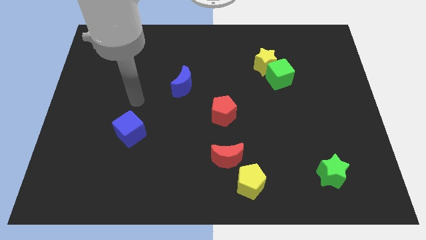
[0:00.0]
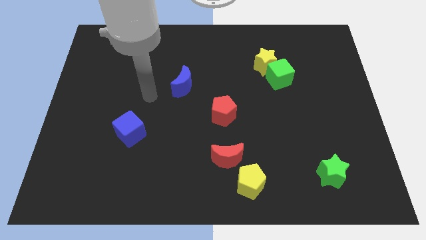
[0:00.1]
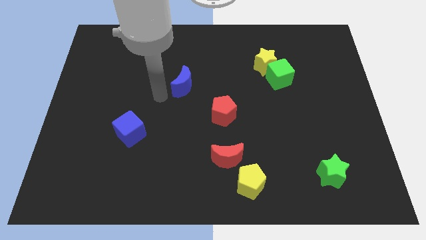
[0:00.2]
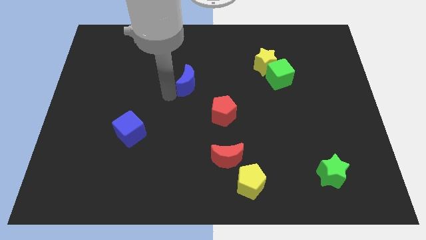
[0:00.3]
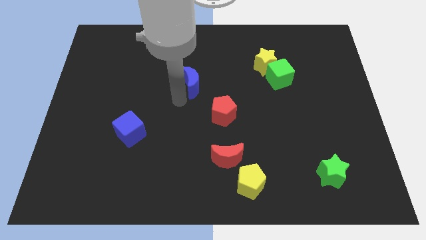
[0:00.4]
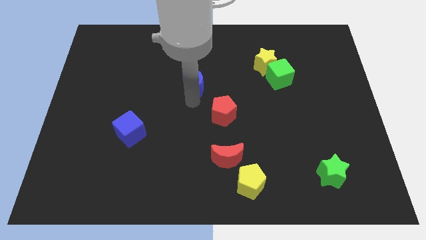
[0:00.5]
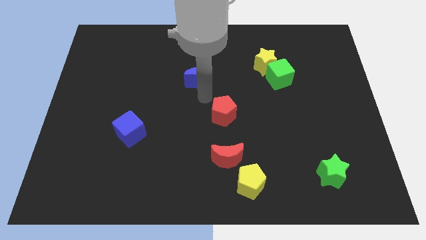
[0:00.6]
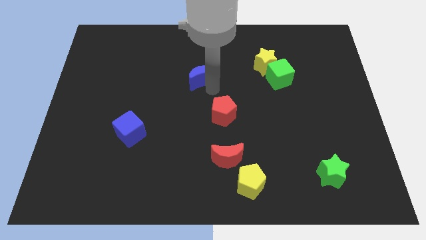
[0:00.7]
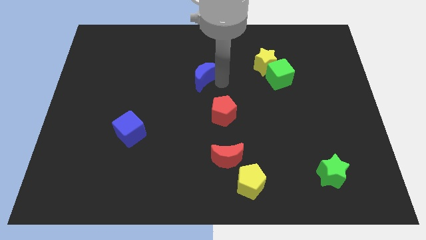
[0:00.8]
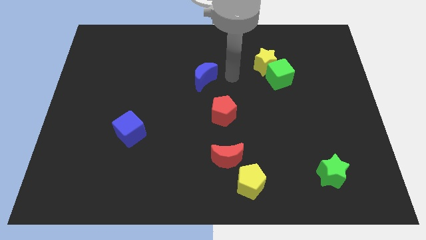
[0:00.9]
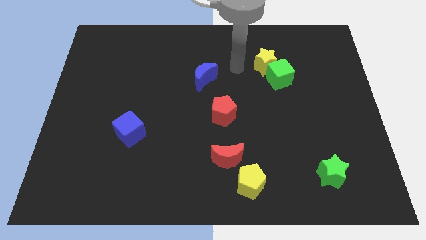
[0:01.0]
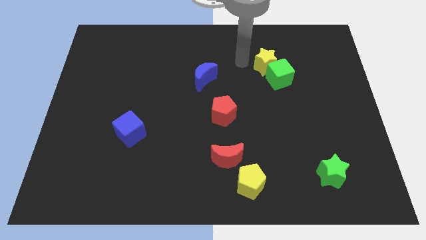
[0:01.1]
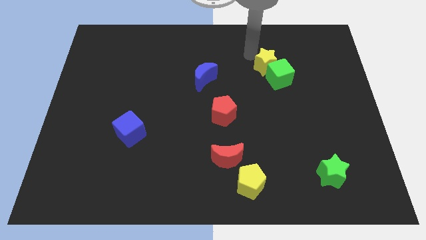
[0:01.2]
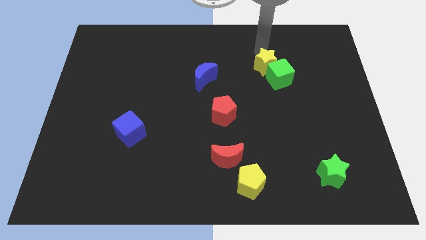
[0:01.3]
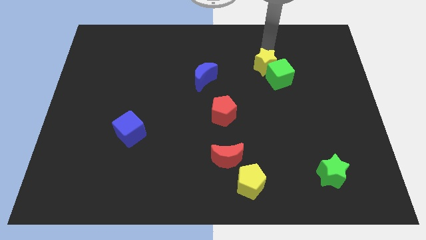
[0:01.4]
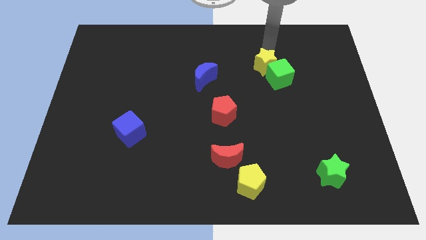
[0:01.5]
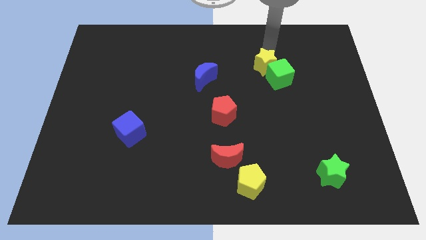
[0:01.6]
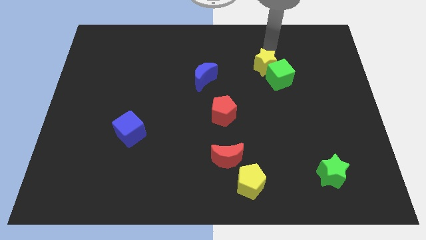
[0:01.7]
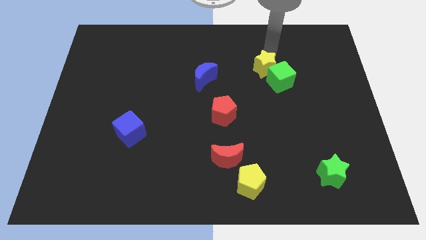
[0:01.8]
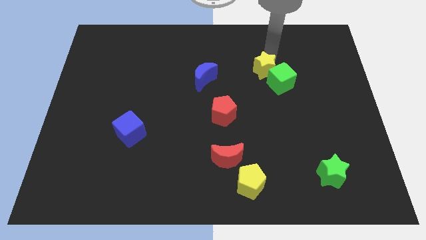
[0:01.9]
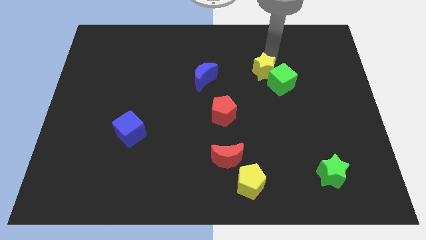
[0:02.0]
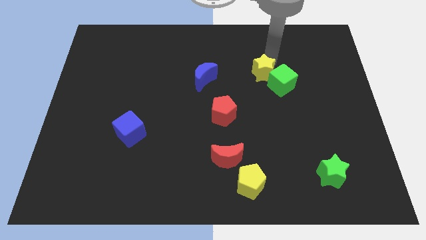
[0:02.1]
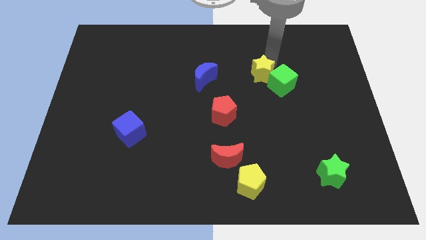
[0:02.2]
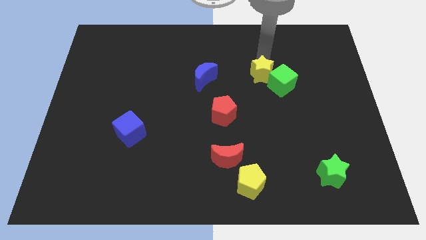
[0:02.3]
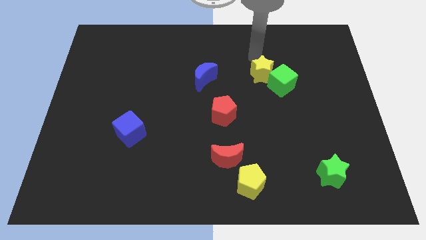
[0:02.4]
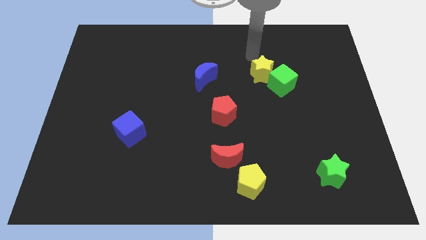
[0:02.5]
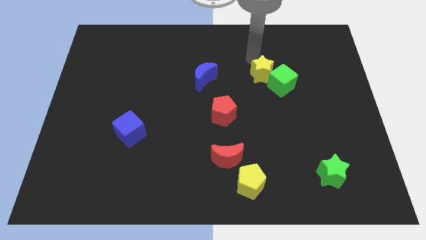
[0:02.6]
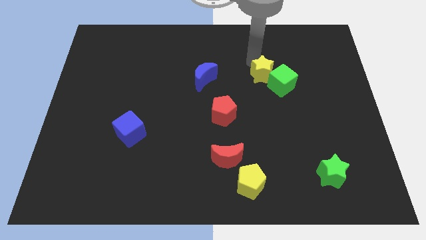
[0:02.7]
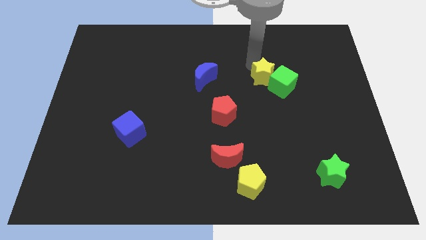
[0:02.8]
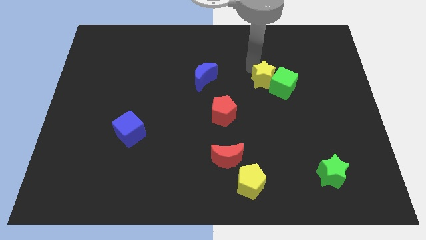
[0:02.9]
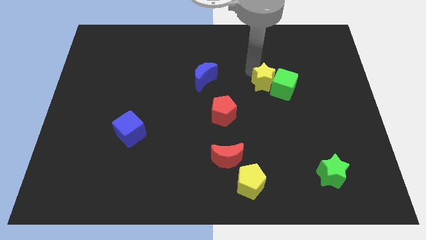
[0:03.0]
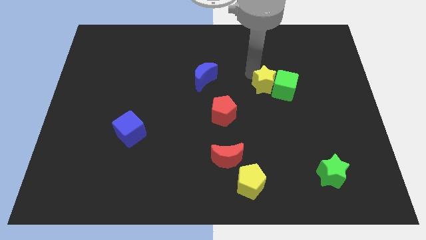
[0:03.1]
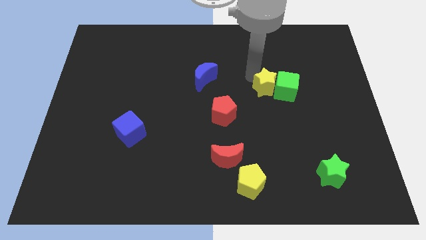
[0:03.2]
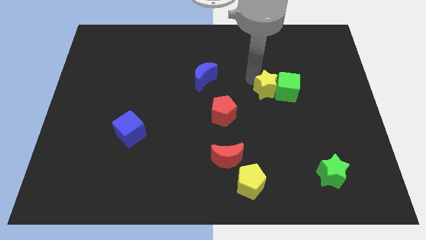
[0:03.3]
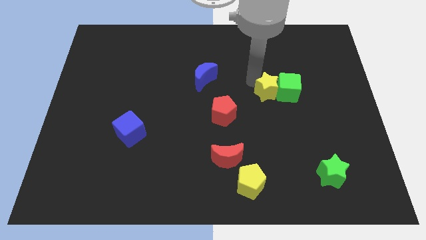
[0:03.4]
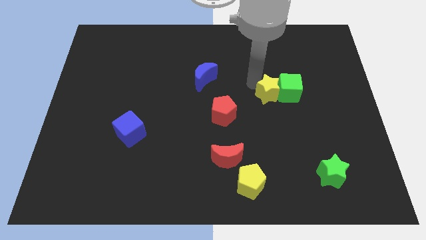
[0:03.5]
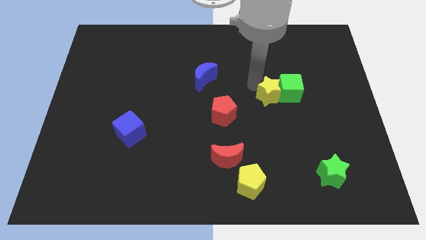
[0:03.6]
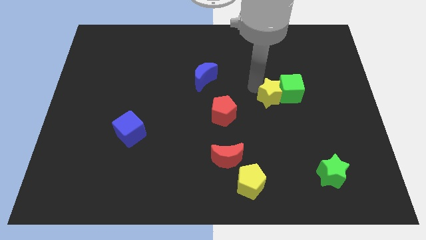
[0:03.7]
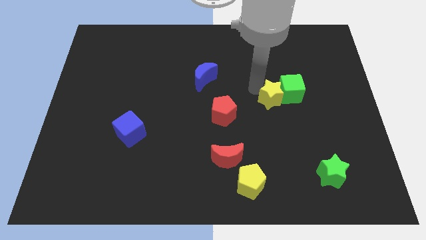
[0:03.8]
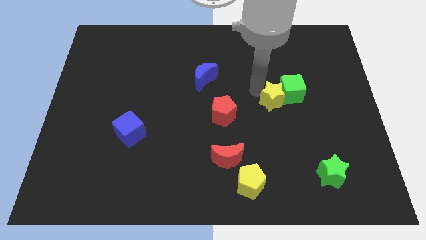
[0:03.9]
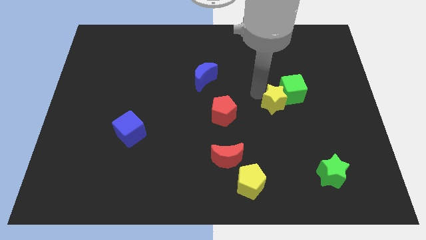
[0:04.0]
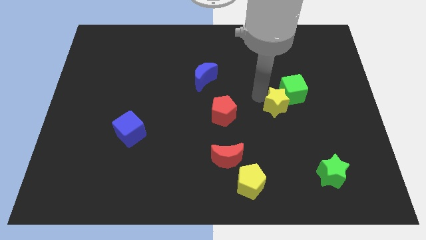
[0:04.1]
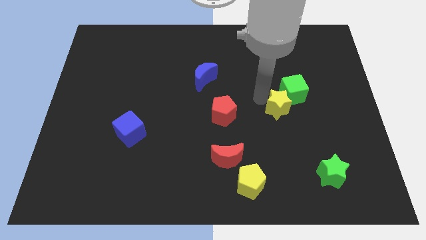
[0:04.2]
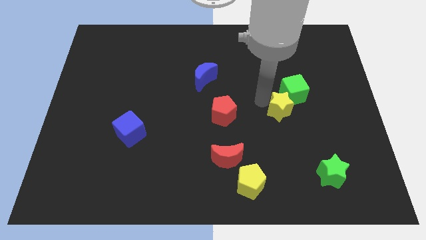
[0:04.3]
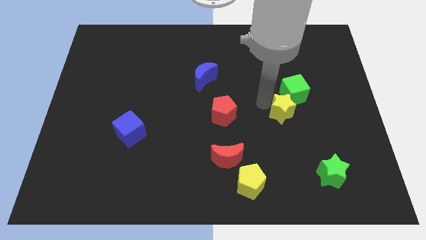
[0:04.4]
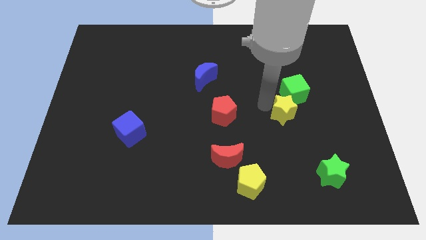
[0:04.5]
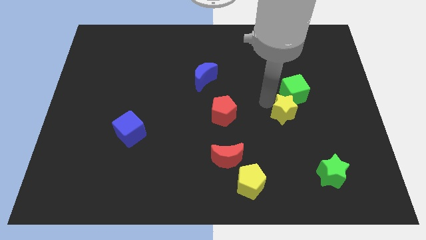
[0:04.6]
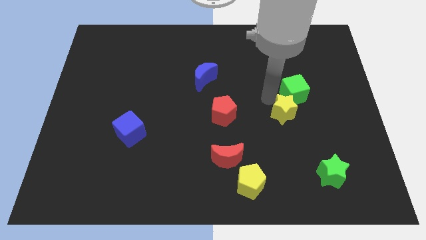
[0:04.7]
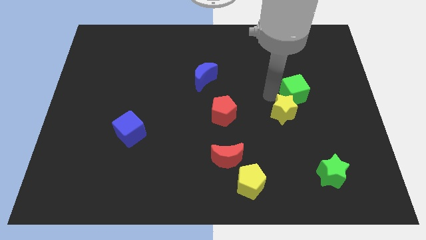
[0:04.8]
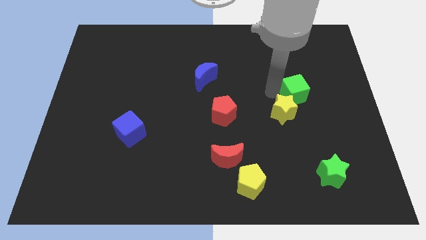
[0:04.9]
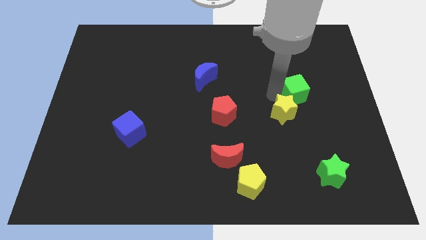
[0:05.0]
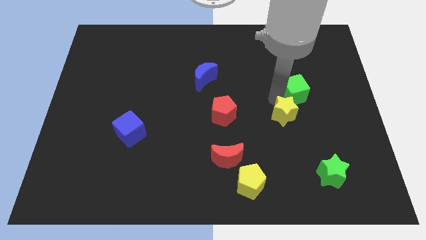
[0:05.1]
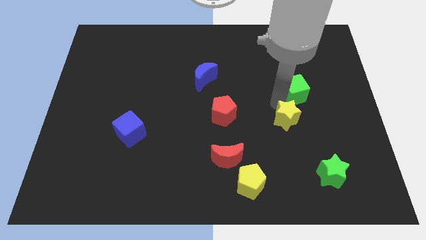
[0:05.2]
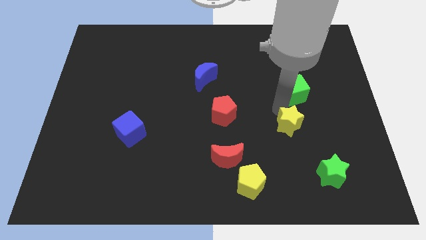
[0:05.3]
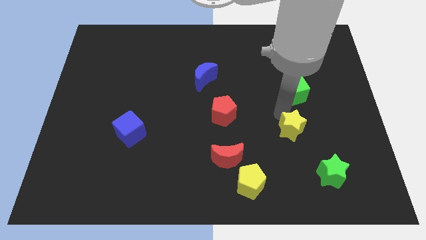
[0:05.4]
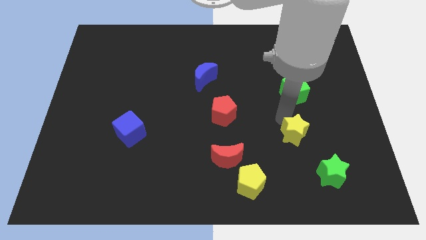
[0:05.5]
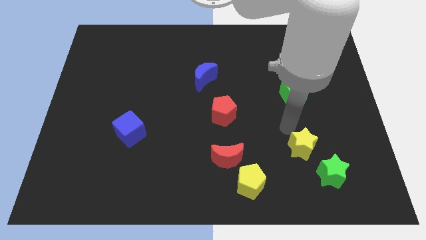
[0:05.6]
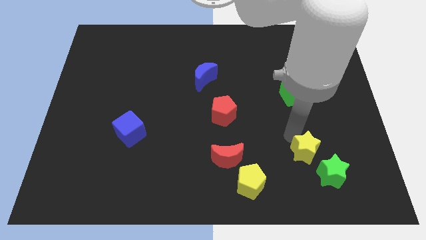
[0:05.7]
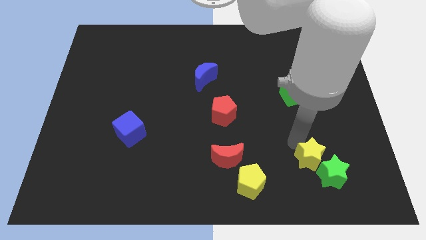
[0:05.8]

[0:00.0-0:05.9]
push the yellow star next to the green star
